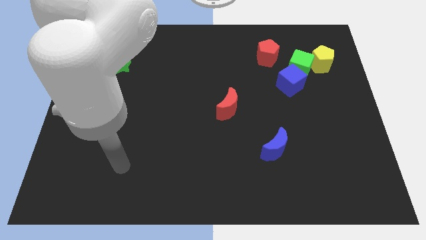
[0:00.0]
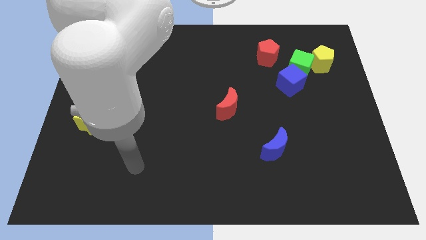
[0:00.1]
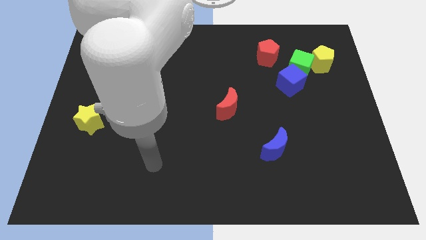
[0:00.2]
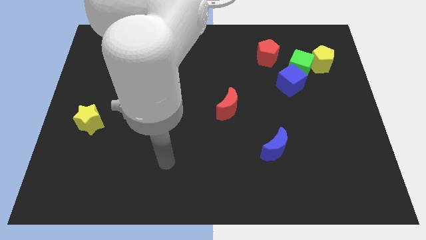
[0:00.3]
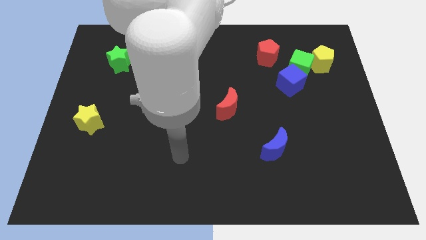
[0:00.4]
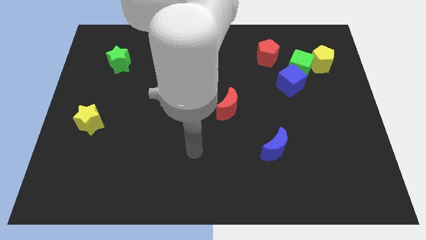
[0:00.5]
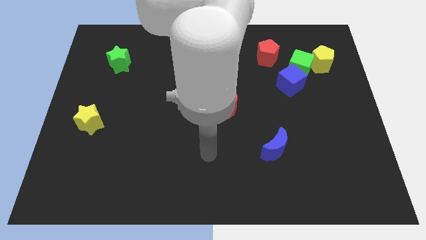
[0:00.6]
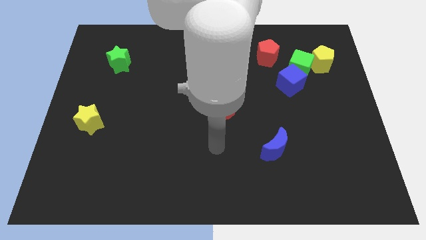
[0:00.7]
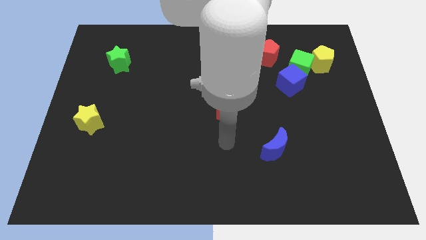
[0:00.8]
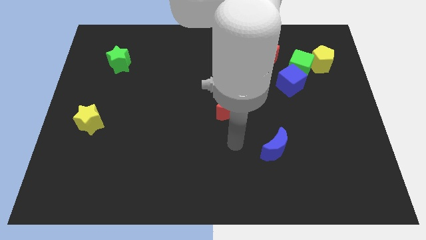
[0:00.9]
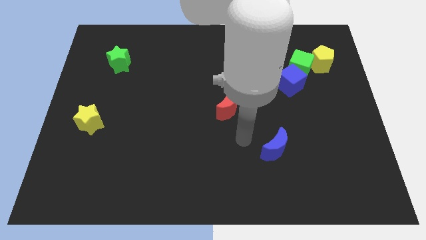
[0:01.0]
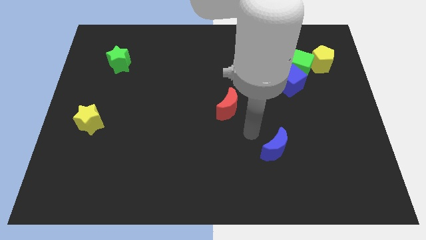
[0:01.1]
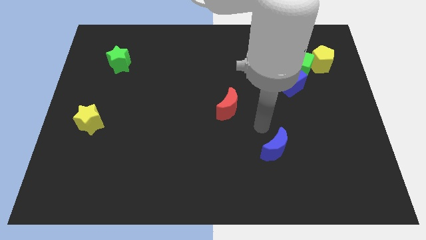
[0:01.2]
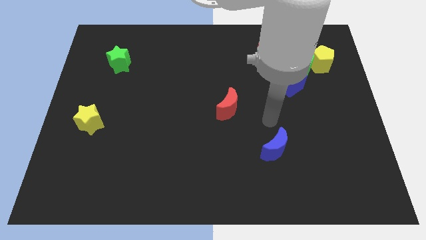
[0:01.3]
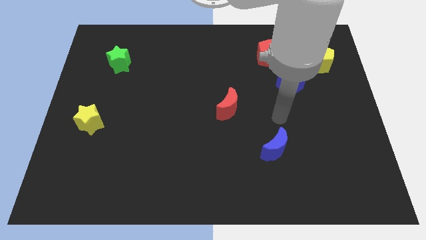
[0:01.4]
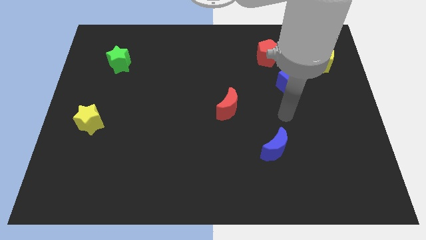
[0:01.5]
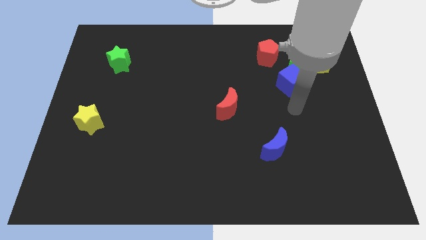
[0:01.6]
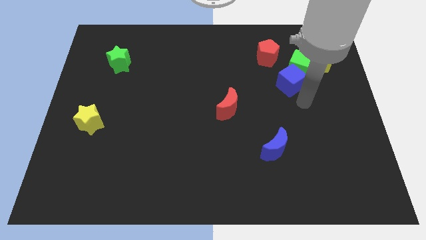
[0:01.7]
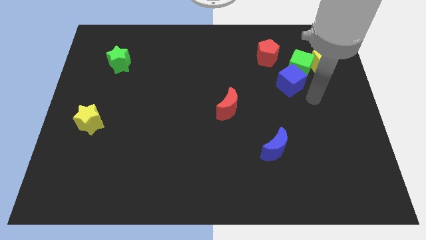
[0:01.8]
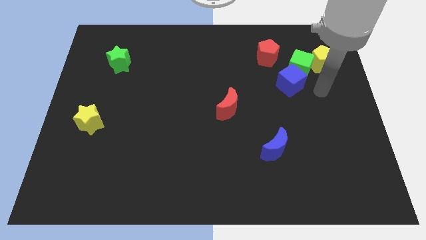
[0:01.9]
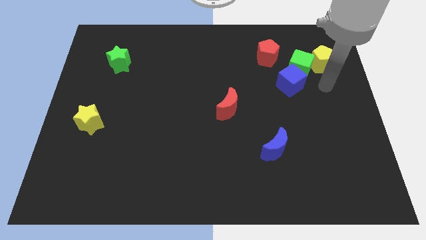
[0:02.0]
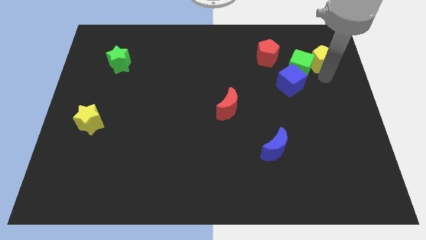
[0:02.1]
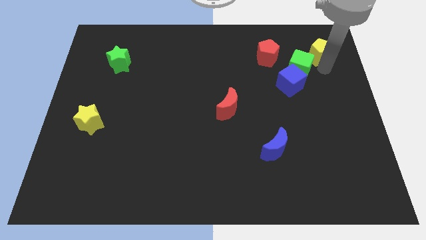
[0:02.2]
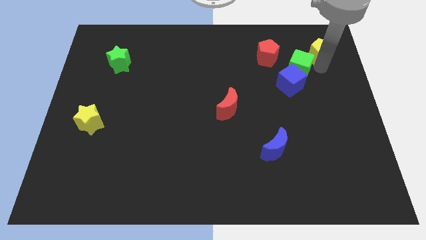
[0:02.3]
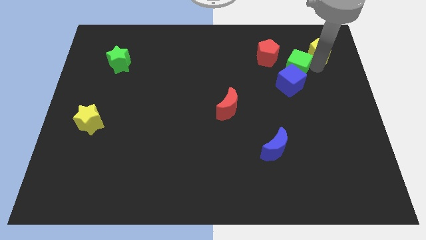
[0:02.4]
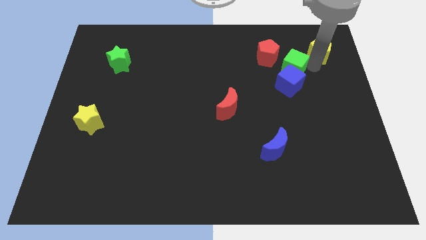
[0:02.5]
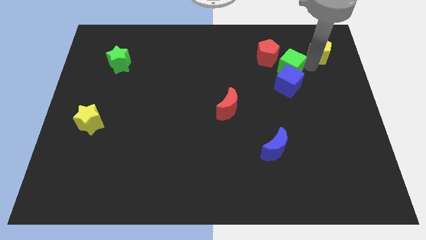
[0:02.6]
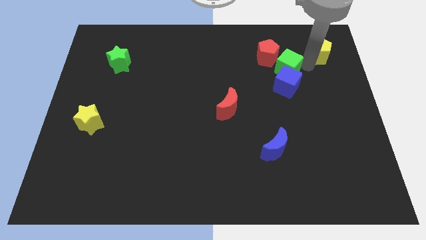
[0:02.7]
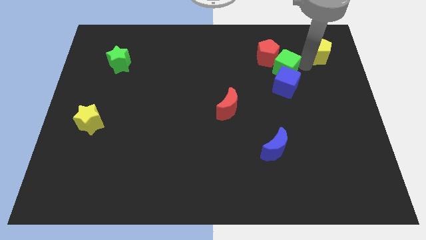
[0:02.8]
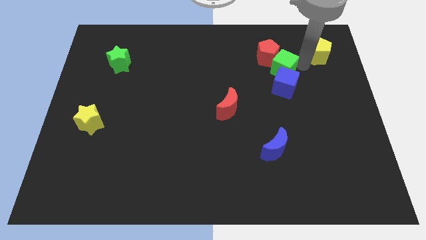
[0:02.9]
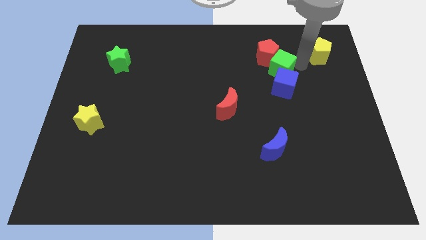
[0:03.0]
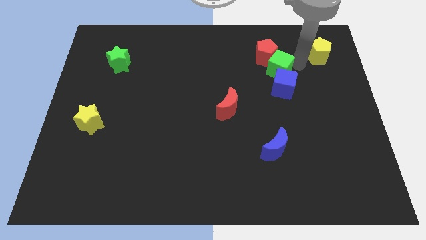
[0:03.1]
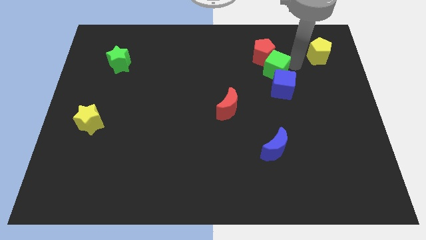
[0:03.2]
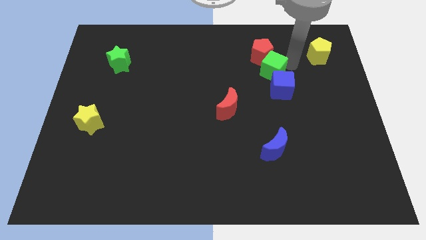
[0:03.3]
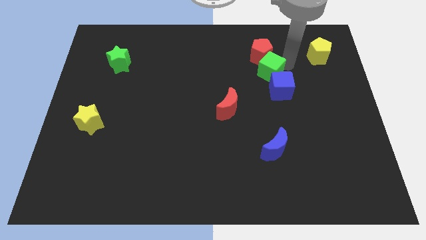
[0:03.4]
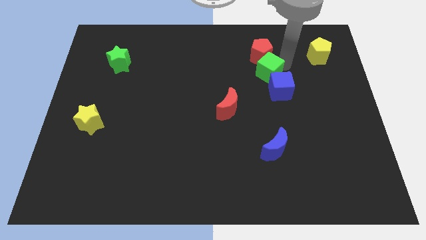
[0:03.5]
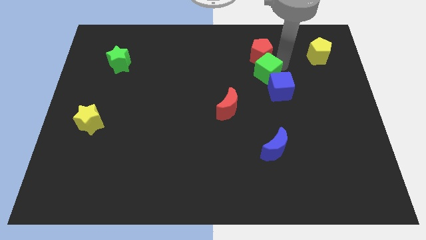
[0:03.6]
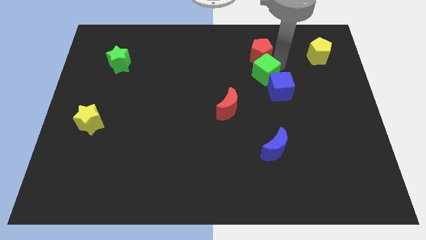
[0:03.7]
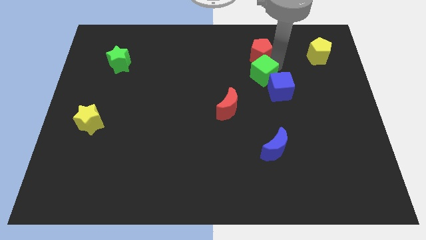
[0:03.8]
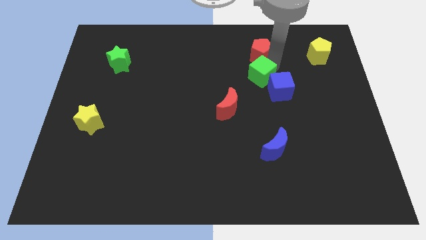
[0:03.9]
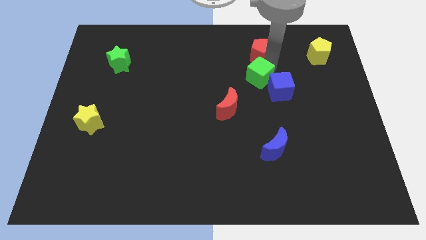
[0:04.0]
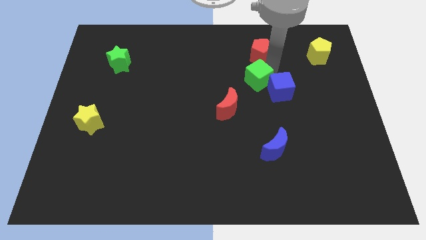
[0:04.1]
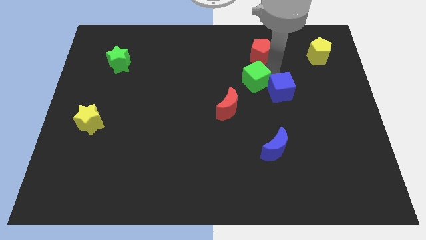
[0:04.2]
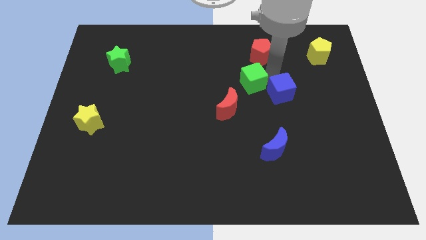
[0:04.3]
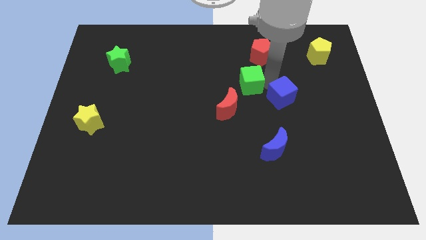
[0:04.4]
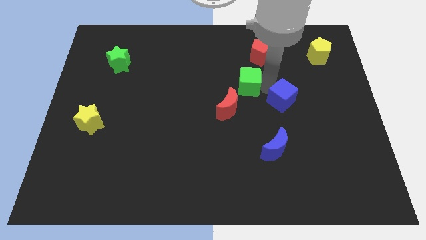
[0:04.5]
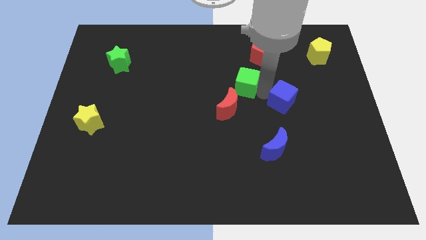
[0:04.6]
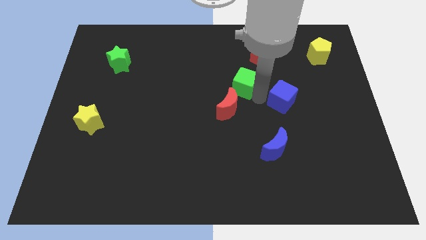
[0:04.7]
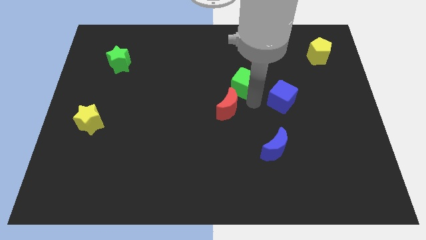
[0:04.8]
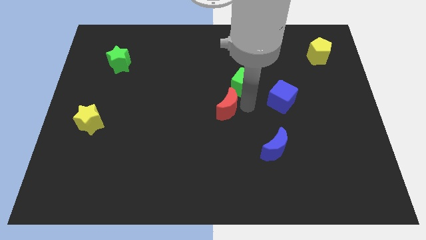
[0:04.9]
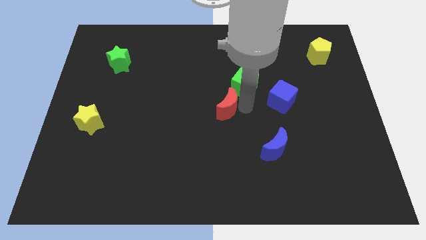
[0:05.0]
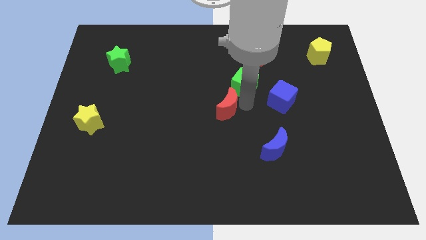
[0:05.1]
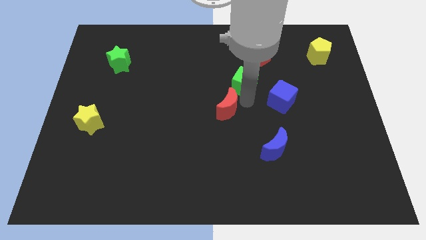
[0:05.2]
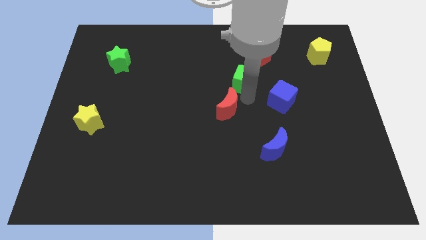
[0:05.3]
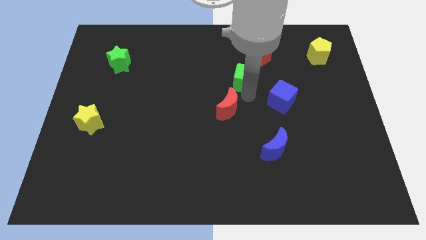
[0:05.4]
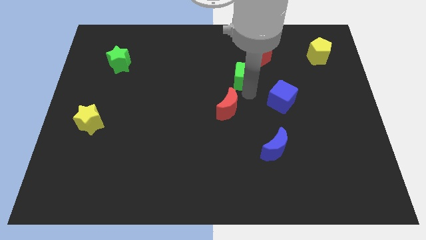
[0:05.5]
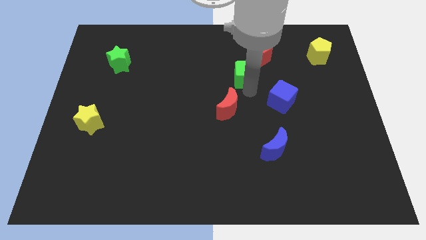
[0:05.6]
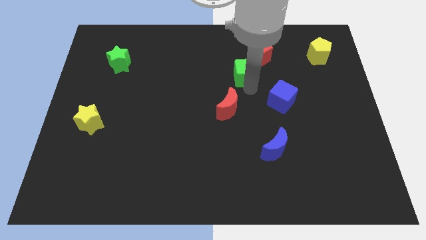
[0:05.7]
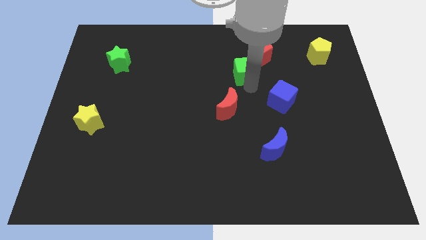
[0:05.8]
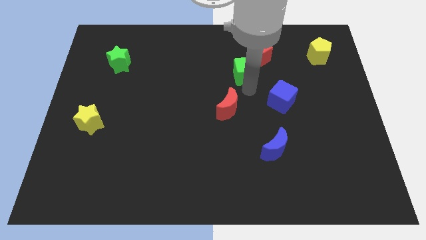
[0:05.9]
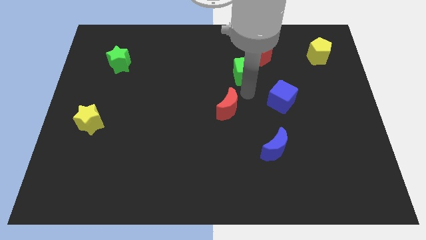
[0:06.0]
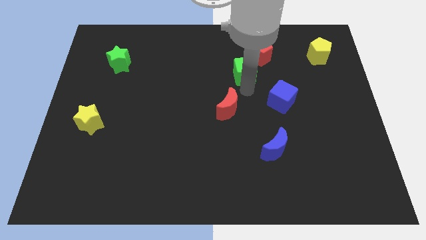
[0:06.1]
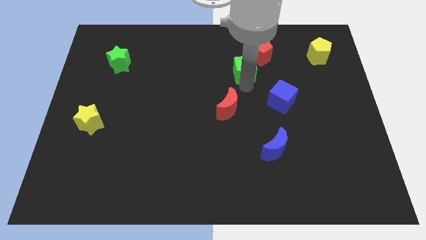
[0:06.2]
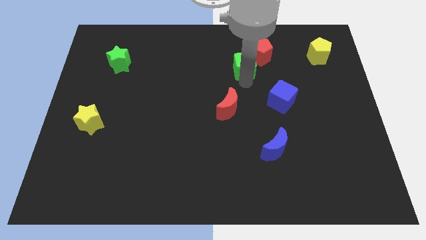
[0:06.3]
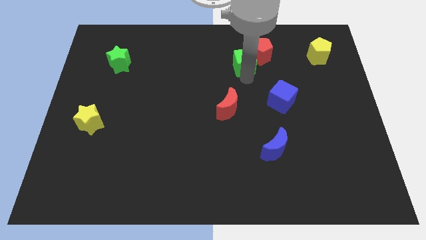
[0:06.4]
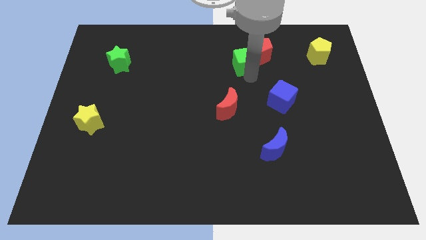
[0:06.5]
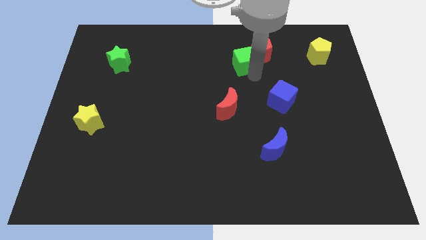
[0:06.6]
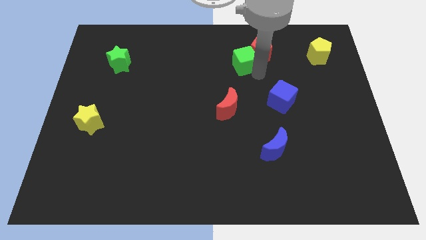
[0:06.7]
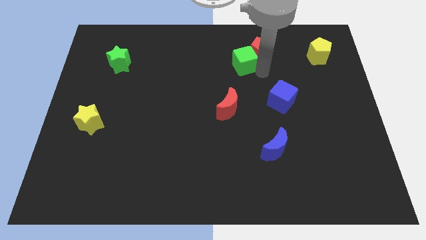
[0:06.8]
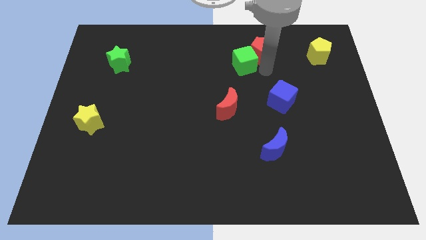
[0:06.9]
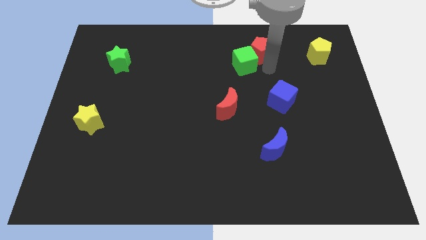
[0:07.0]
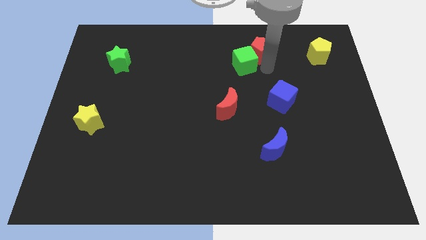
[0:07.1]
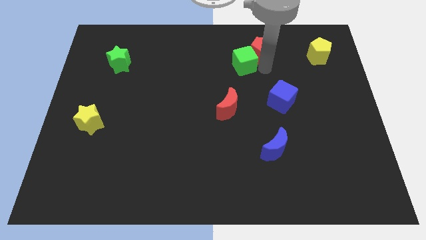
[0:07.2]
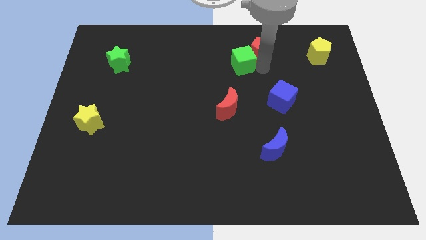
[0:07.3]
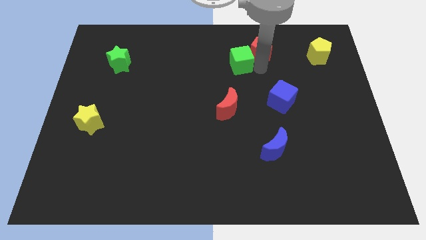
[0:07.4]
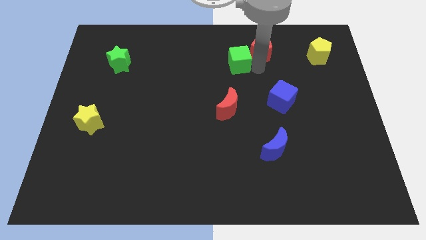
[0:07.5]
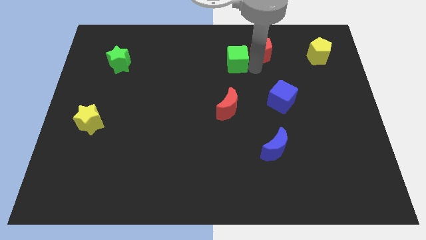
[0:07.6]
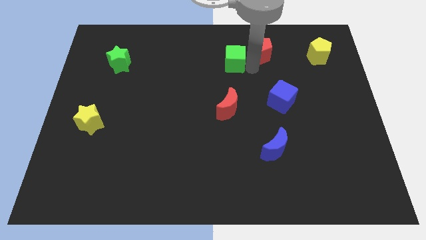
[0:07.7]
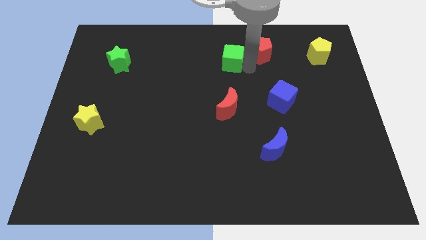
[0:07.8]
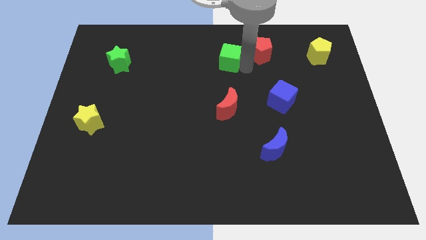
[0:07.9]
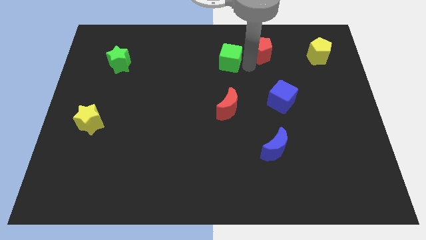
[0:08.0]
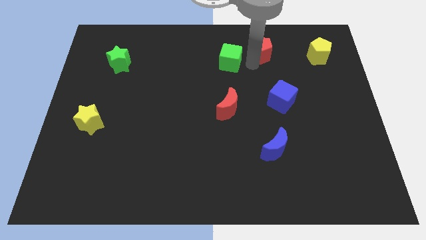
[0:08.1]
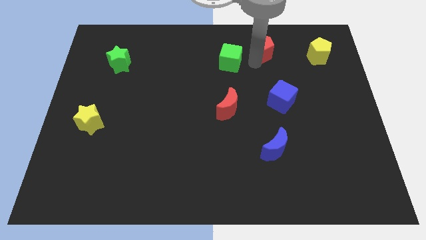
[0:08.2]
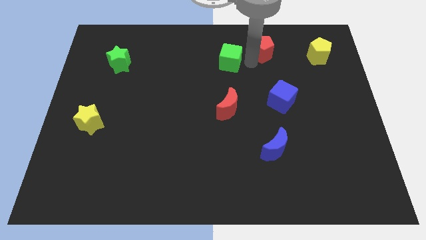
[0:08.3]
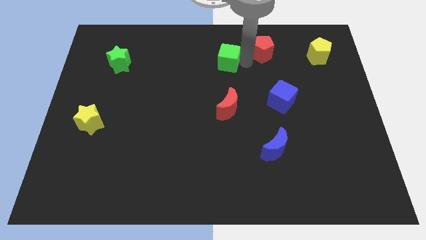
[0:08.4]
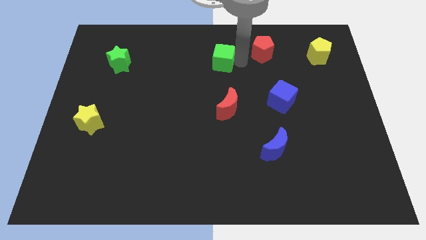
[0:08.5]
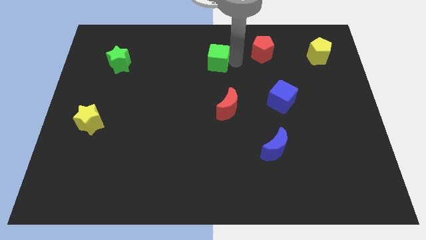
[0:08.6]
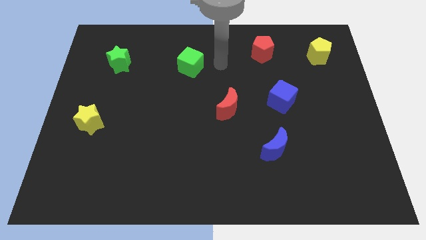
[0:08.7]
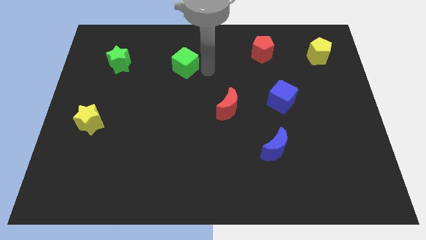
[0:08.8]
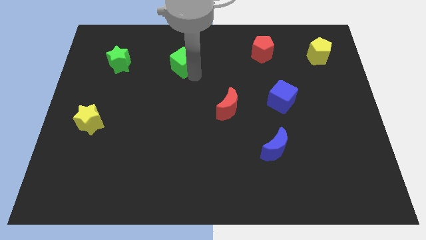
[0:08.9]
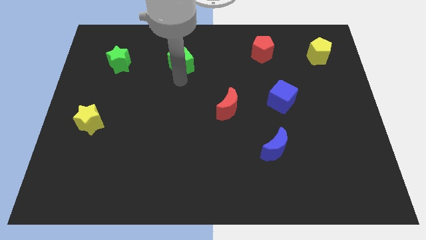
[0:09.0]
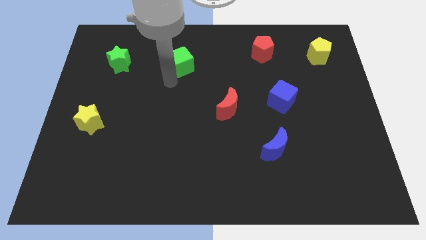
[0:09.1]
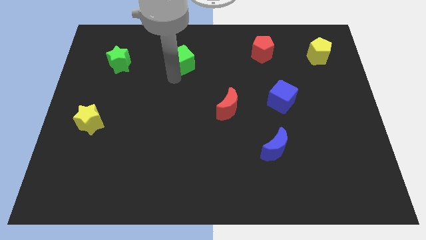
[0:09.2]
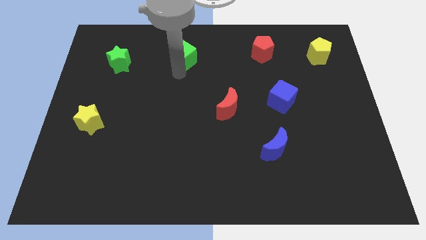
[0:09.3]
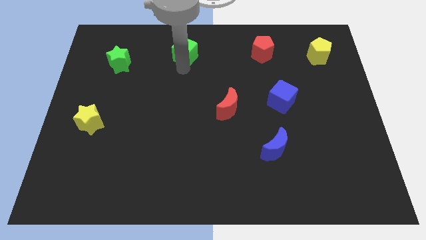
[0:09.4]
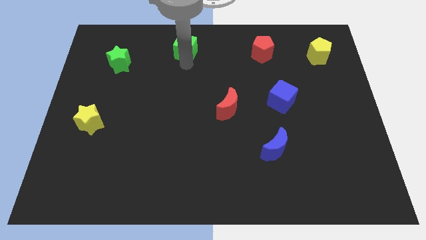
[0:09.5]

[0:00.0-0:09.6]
put the green cube to the towards your base
